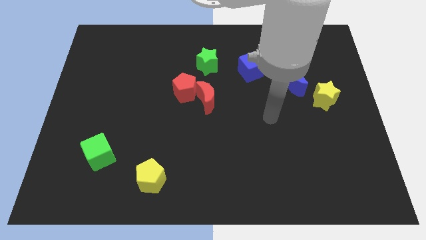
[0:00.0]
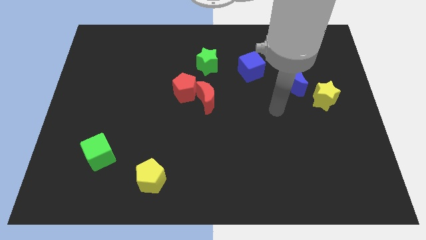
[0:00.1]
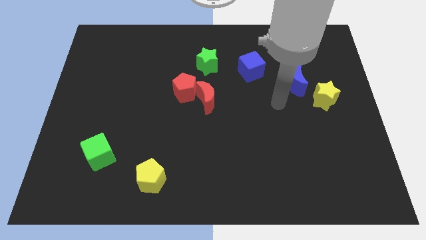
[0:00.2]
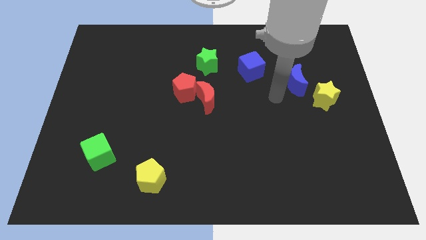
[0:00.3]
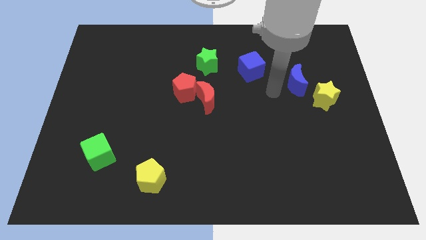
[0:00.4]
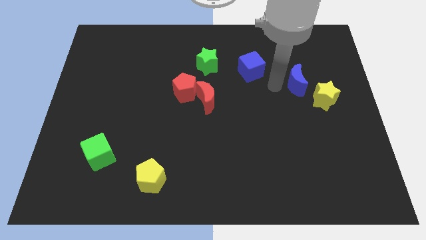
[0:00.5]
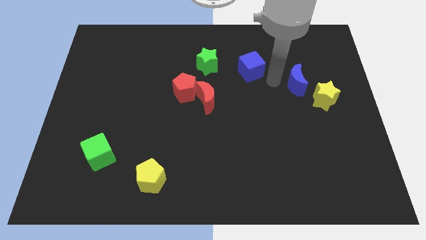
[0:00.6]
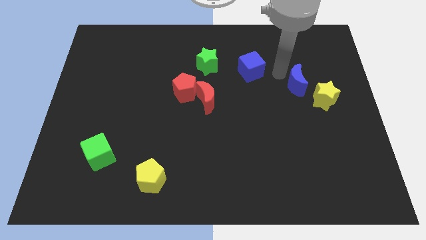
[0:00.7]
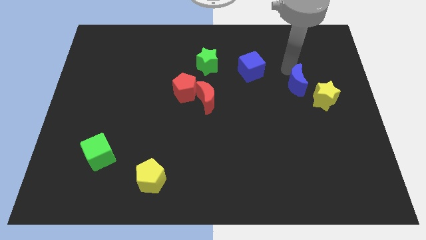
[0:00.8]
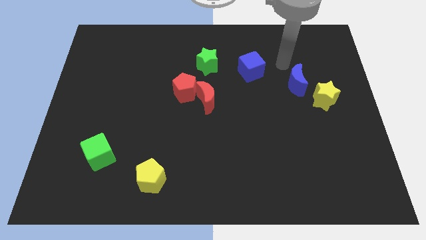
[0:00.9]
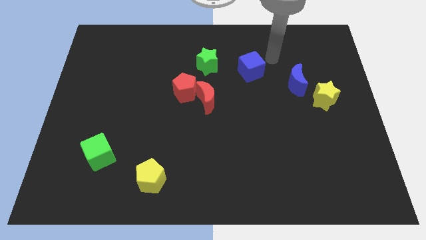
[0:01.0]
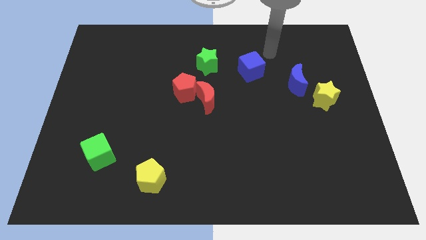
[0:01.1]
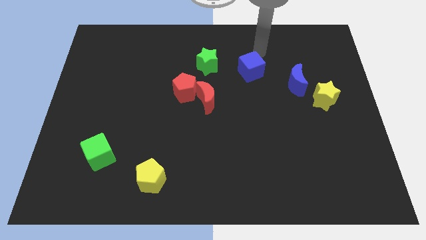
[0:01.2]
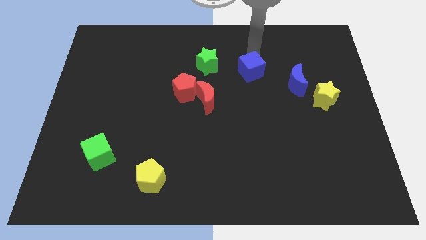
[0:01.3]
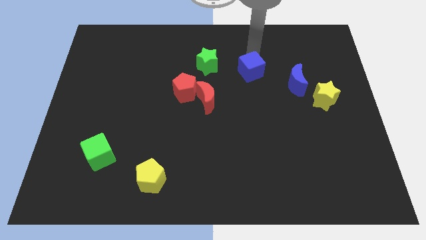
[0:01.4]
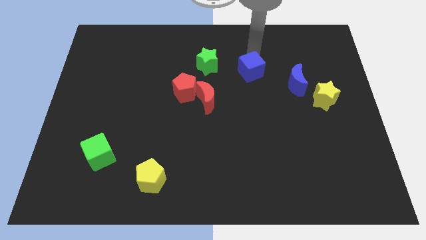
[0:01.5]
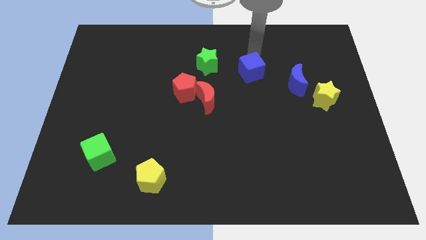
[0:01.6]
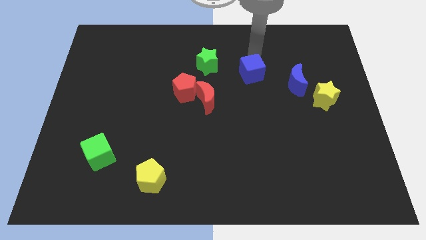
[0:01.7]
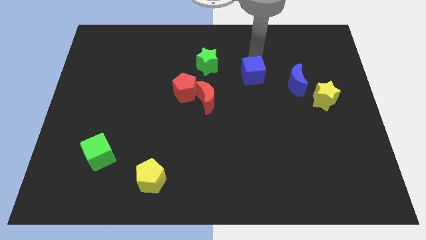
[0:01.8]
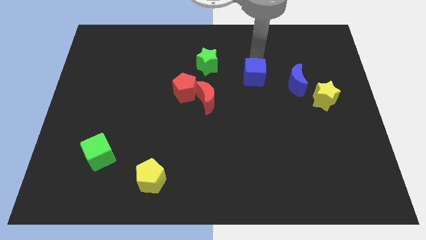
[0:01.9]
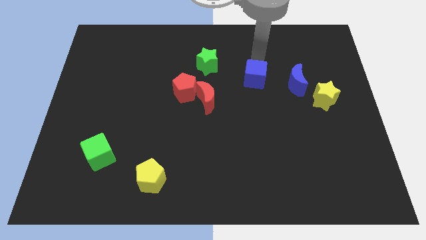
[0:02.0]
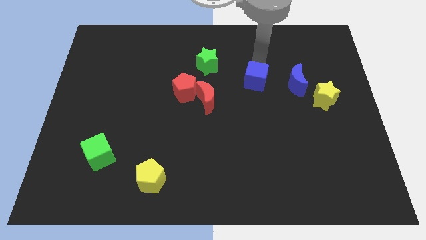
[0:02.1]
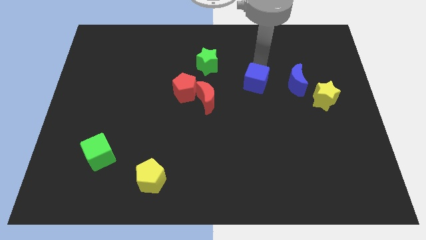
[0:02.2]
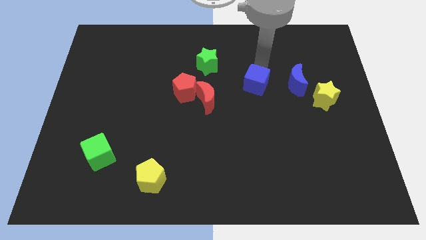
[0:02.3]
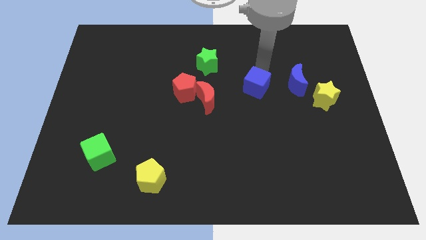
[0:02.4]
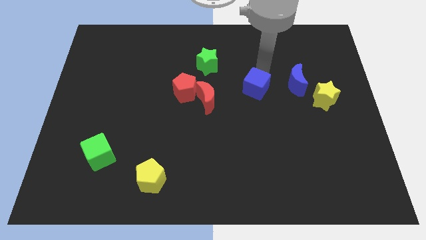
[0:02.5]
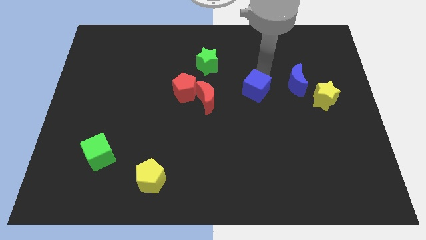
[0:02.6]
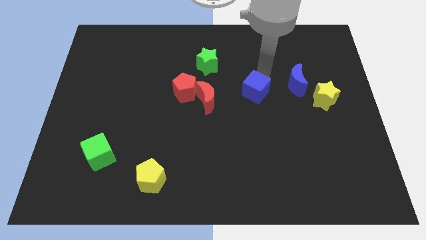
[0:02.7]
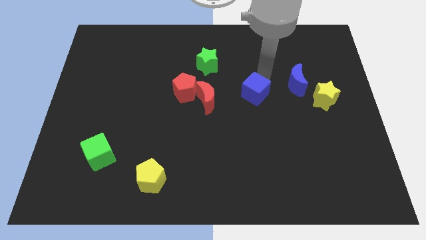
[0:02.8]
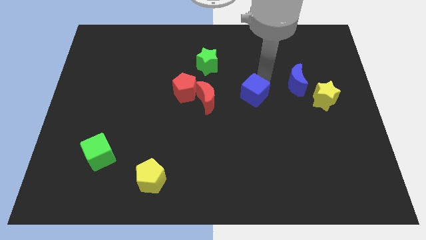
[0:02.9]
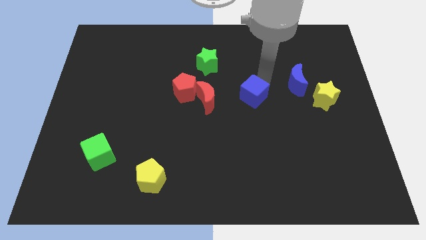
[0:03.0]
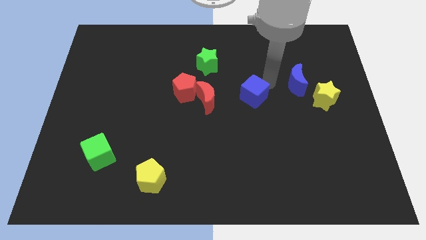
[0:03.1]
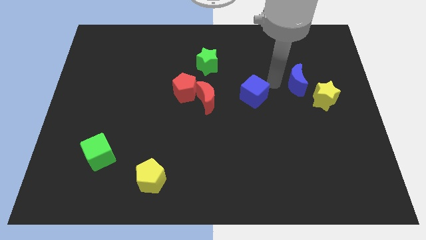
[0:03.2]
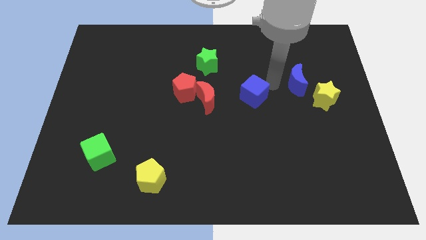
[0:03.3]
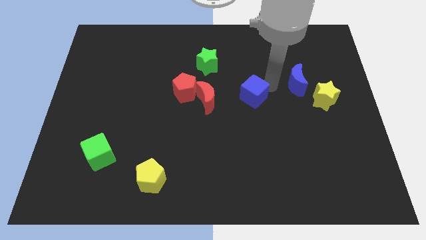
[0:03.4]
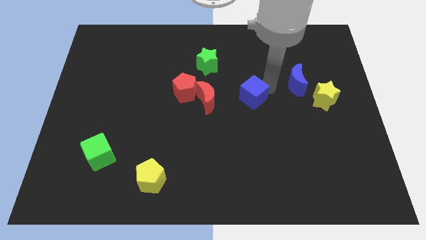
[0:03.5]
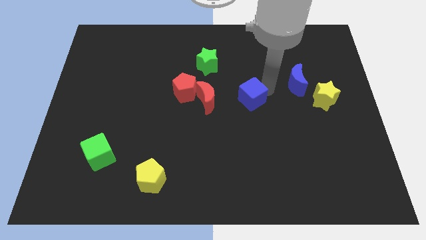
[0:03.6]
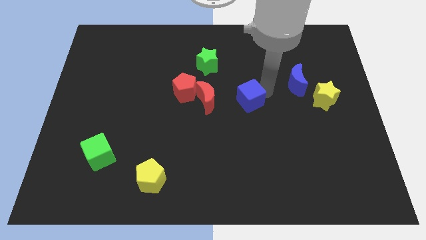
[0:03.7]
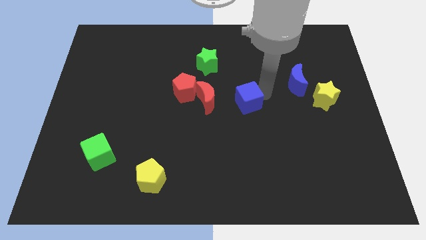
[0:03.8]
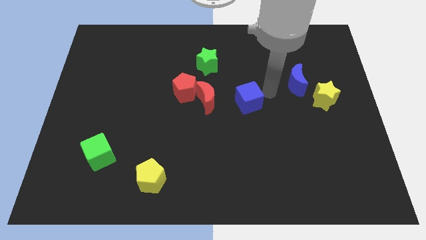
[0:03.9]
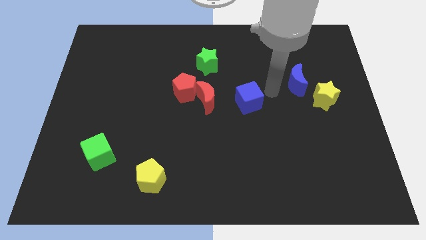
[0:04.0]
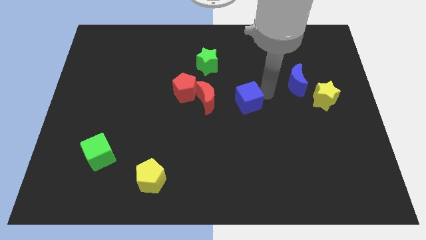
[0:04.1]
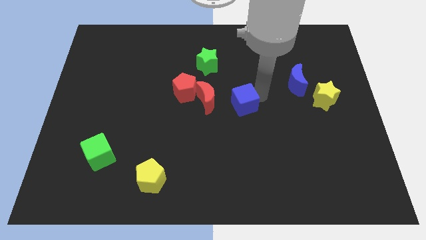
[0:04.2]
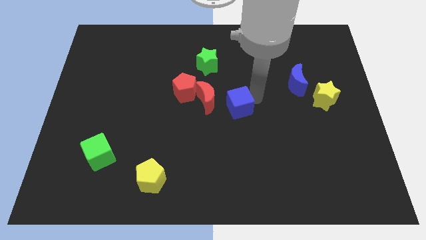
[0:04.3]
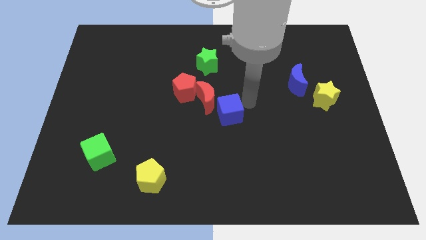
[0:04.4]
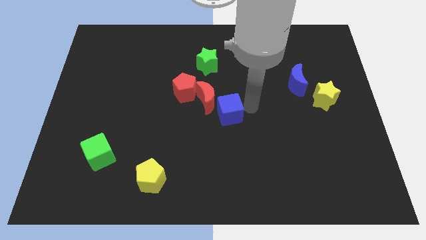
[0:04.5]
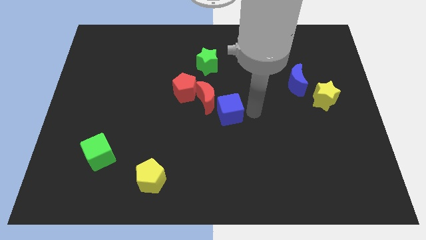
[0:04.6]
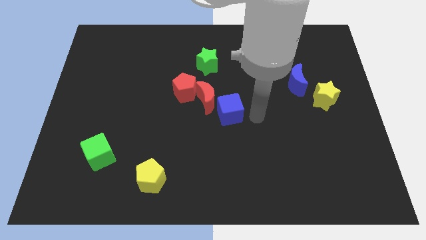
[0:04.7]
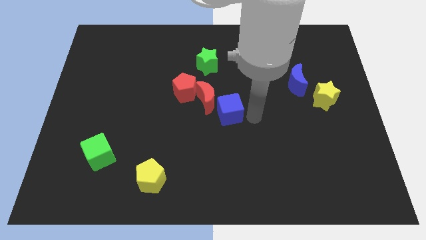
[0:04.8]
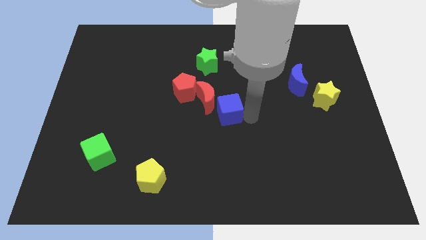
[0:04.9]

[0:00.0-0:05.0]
put the blue cube diagonally down and to the right of the red pentagon

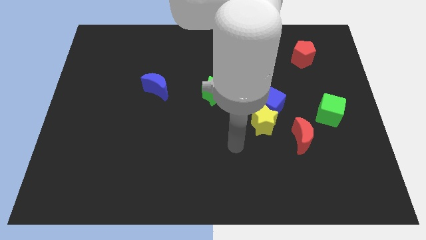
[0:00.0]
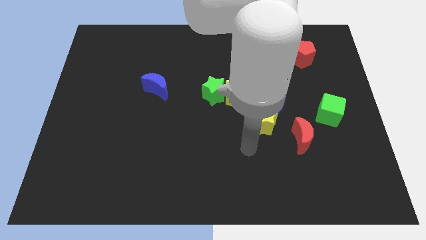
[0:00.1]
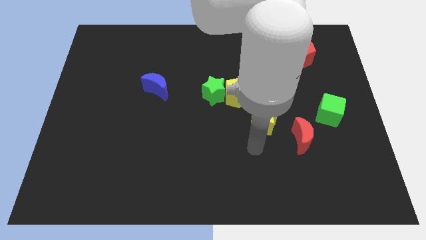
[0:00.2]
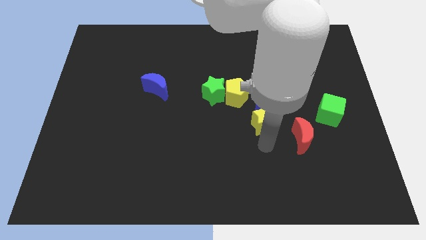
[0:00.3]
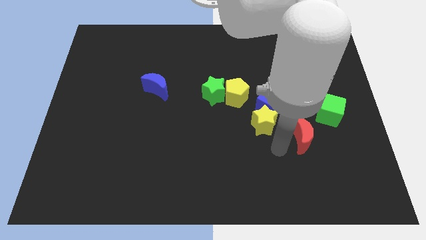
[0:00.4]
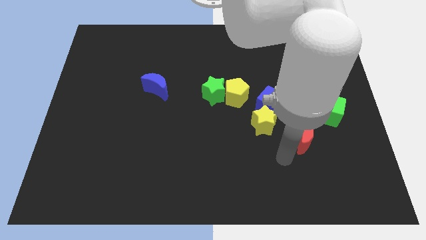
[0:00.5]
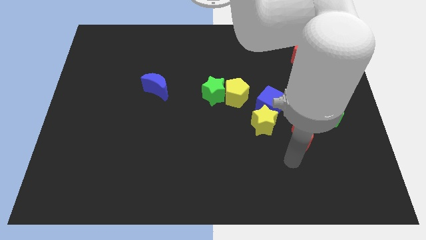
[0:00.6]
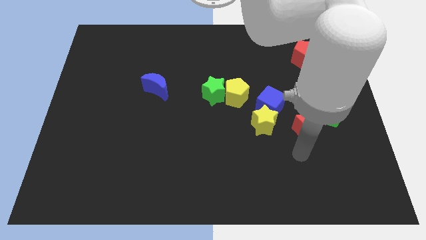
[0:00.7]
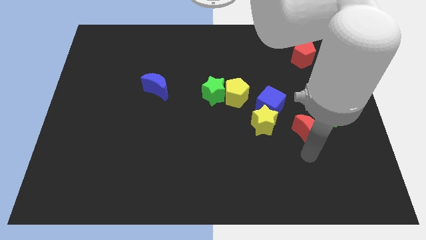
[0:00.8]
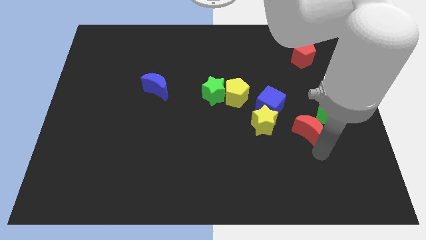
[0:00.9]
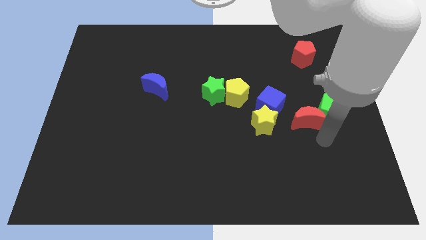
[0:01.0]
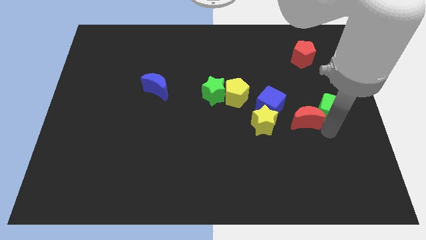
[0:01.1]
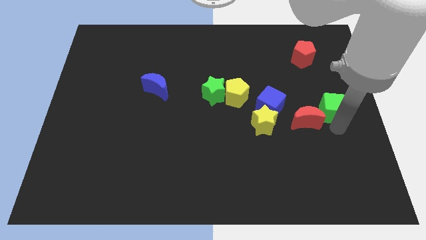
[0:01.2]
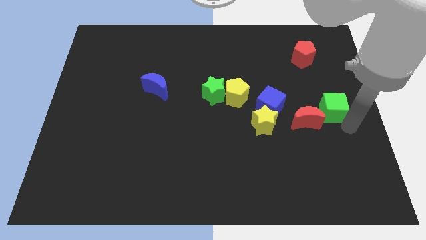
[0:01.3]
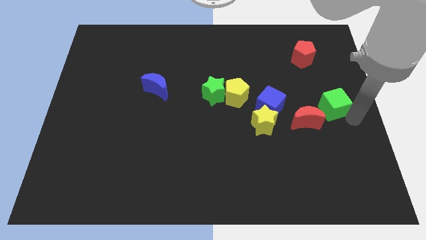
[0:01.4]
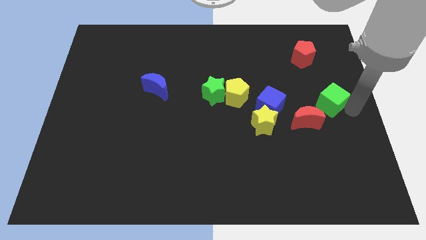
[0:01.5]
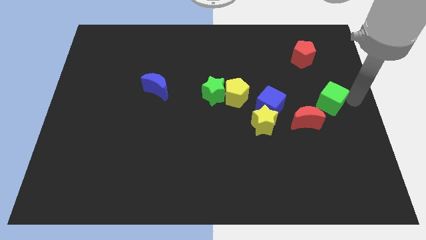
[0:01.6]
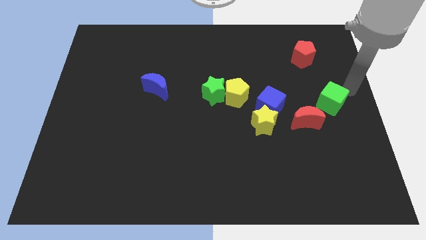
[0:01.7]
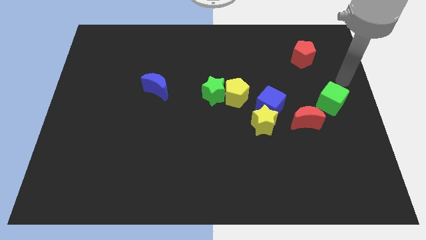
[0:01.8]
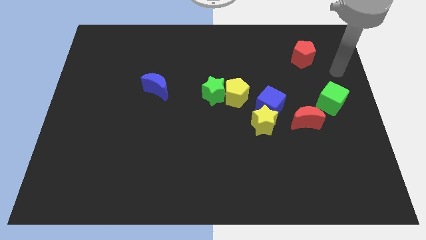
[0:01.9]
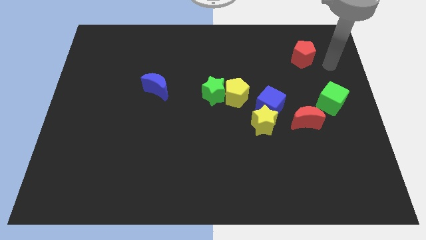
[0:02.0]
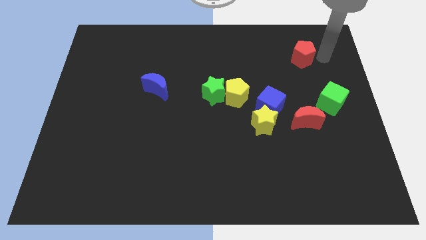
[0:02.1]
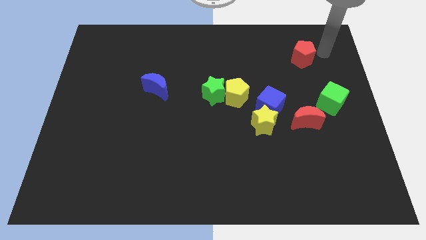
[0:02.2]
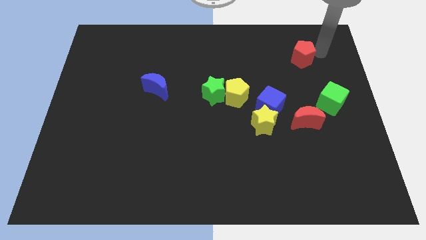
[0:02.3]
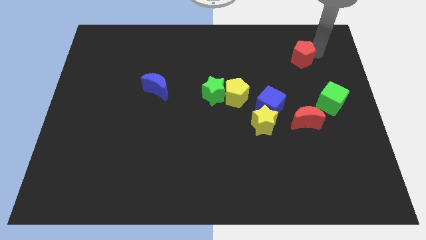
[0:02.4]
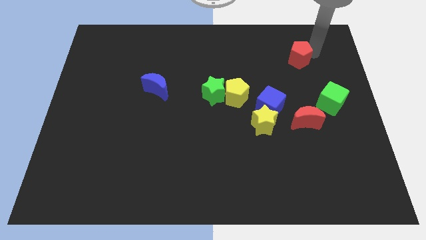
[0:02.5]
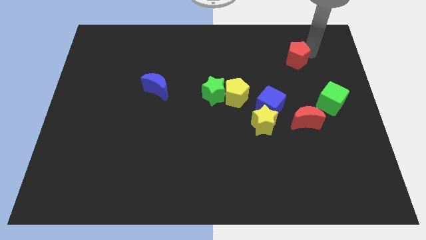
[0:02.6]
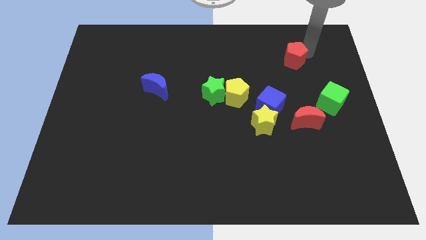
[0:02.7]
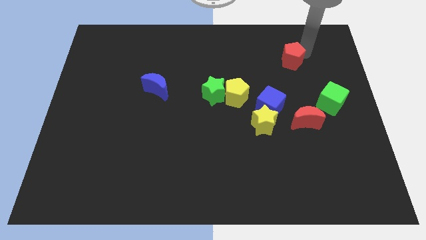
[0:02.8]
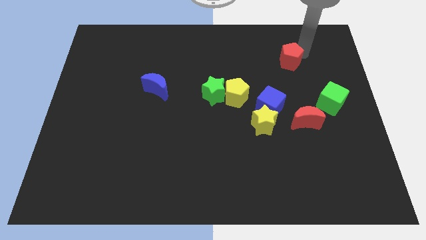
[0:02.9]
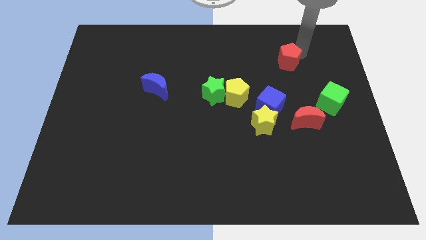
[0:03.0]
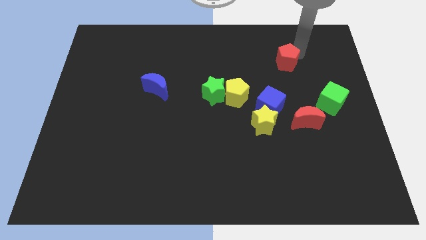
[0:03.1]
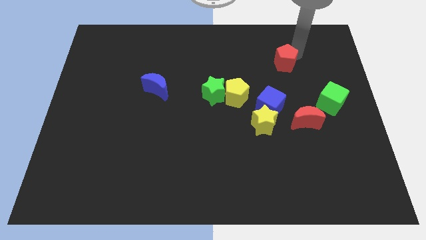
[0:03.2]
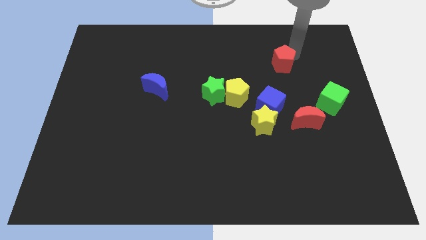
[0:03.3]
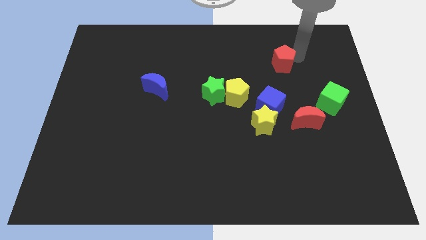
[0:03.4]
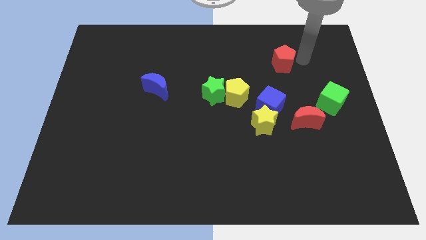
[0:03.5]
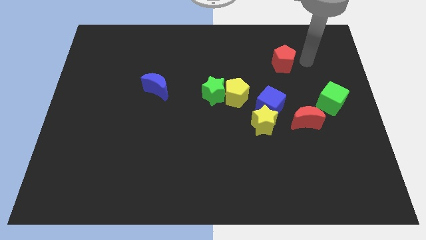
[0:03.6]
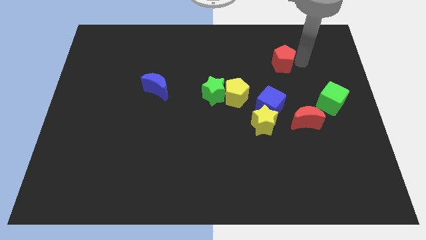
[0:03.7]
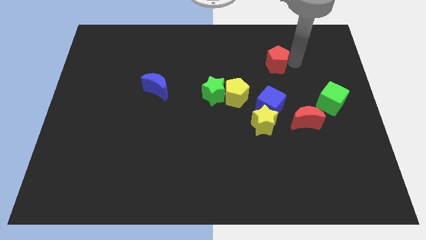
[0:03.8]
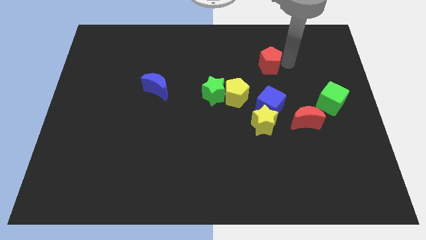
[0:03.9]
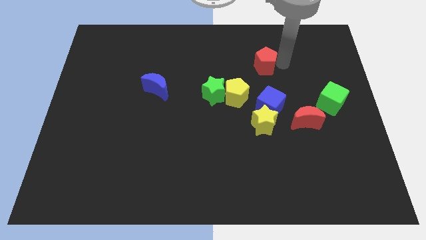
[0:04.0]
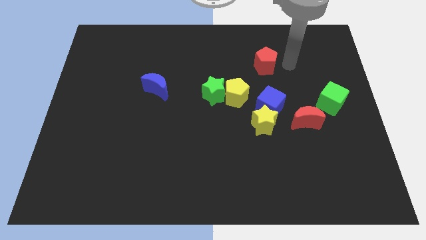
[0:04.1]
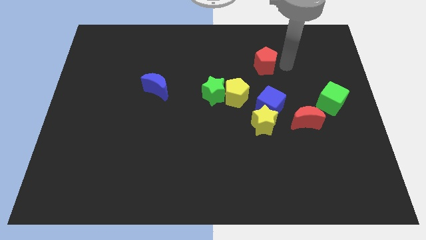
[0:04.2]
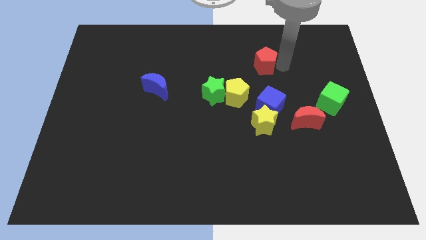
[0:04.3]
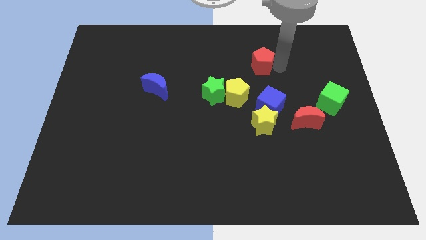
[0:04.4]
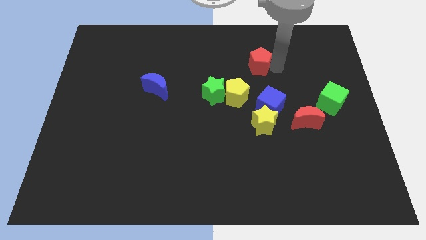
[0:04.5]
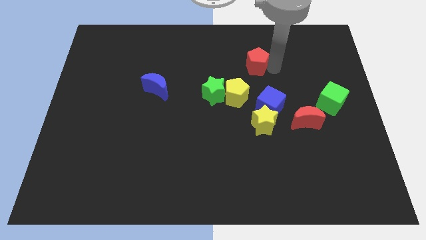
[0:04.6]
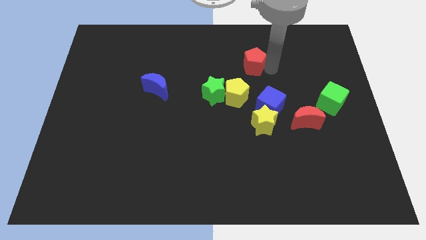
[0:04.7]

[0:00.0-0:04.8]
put the red pentagon to the top side of the yellow pentagon
